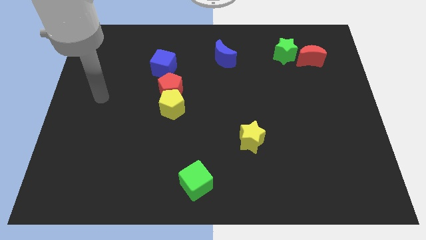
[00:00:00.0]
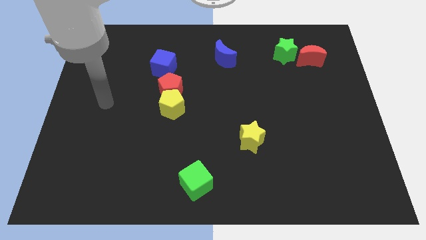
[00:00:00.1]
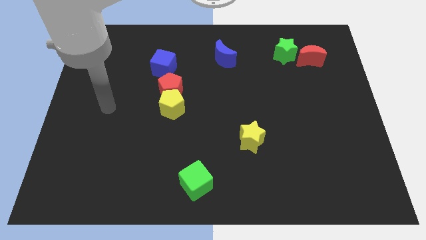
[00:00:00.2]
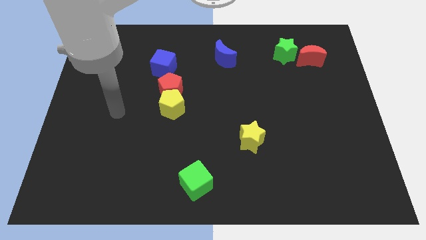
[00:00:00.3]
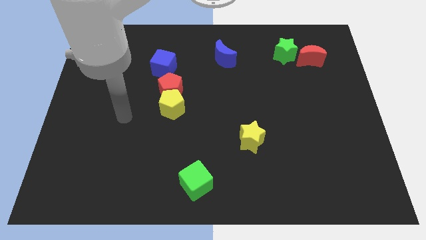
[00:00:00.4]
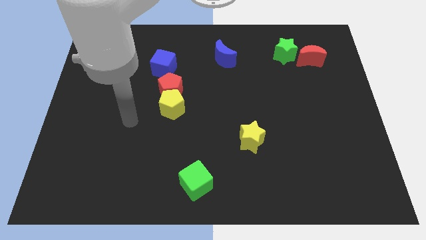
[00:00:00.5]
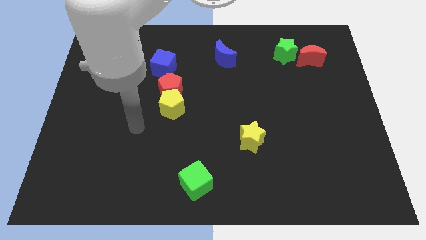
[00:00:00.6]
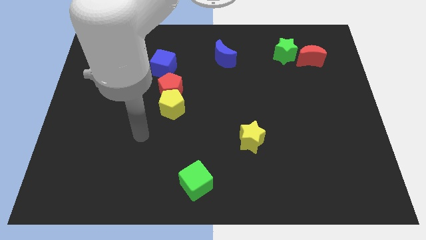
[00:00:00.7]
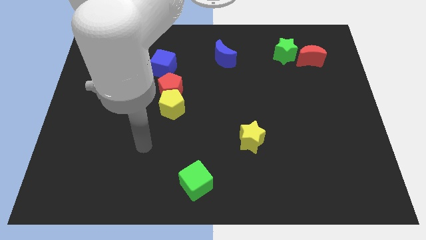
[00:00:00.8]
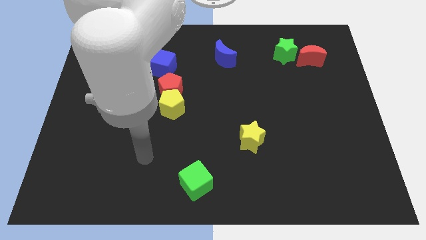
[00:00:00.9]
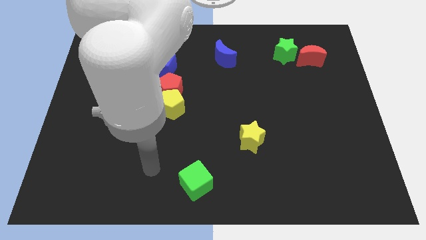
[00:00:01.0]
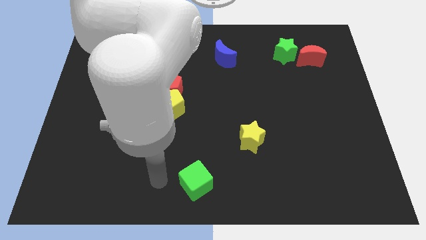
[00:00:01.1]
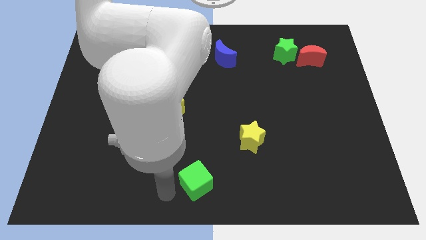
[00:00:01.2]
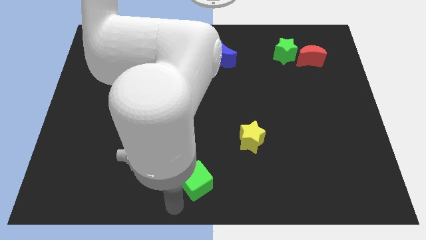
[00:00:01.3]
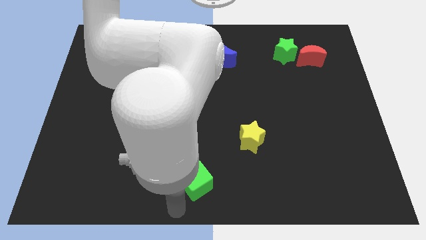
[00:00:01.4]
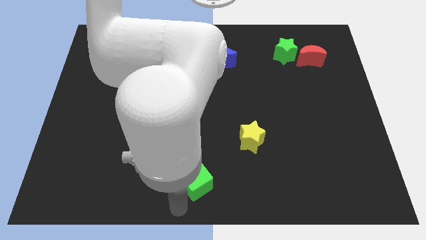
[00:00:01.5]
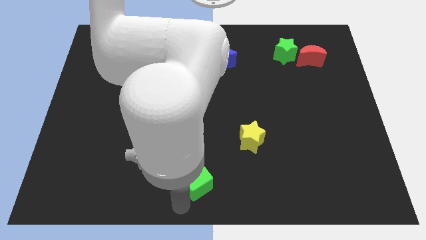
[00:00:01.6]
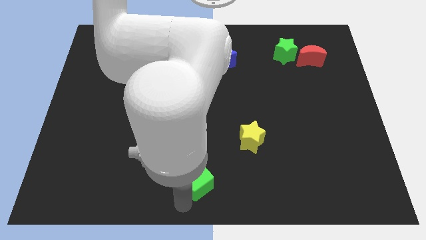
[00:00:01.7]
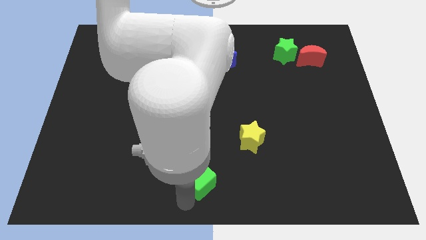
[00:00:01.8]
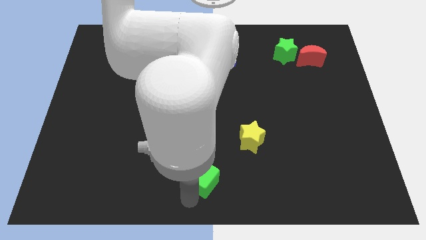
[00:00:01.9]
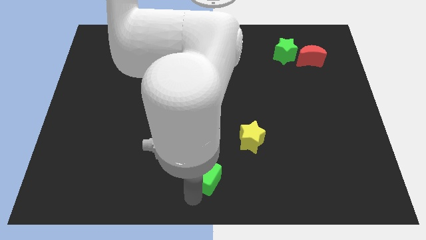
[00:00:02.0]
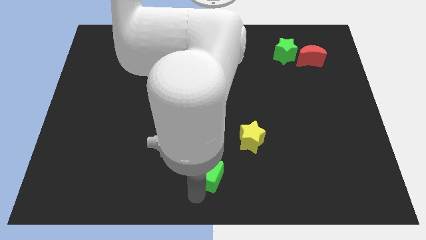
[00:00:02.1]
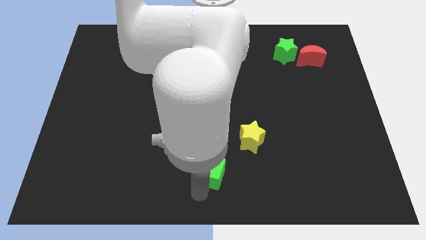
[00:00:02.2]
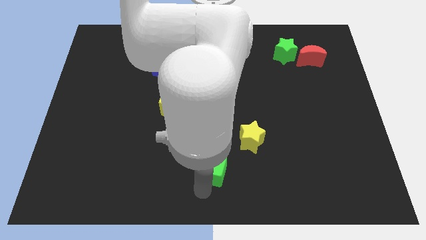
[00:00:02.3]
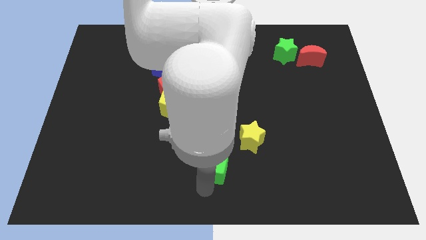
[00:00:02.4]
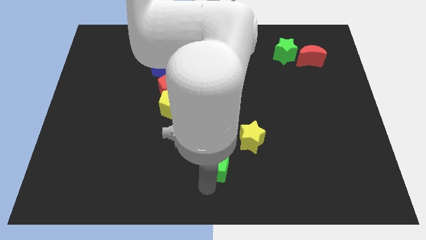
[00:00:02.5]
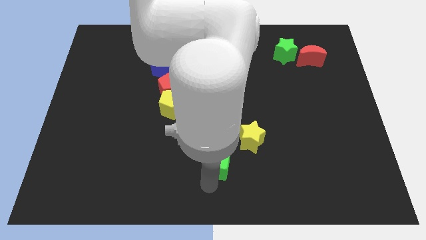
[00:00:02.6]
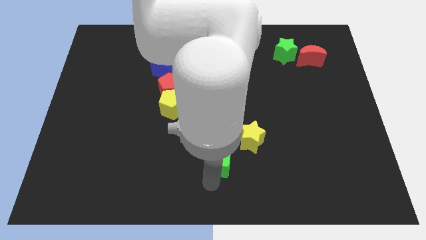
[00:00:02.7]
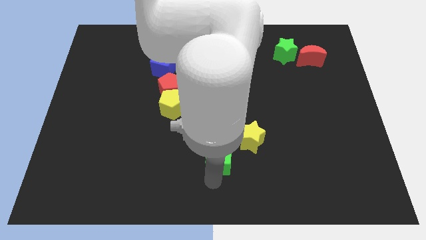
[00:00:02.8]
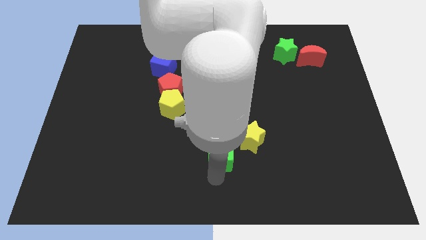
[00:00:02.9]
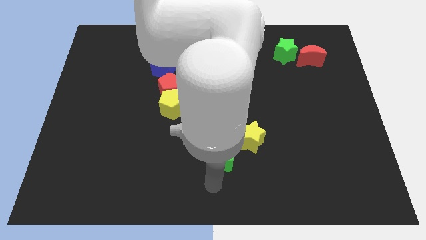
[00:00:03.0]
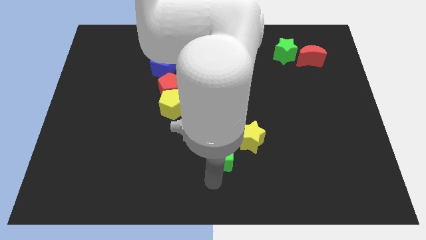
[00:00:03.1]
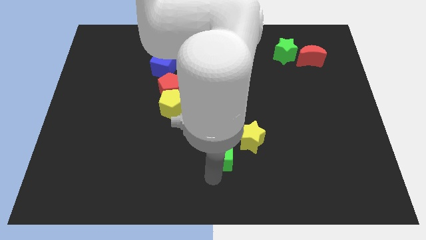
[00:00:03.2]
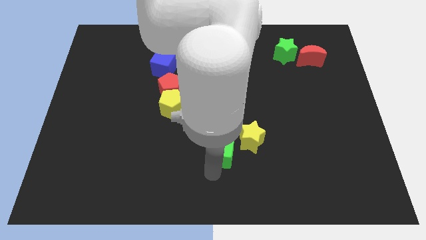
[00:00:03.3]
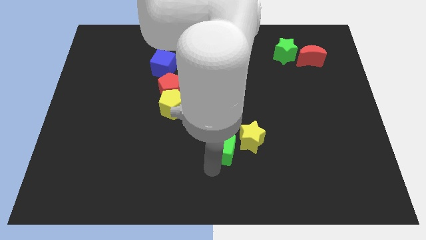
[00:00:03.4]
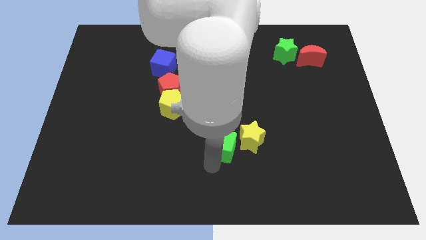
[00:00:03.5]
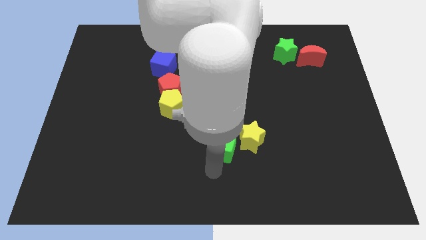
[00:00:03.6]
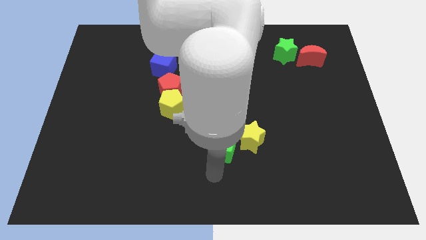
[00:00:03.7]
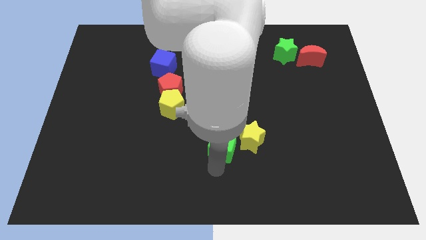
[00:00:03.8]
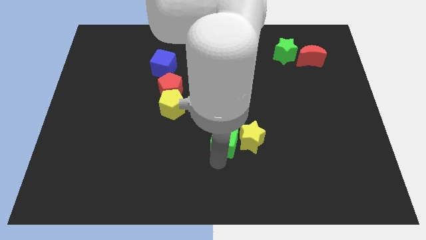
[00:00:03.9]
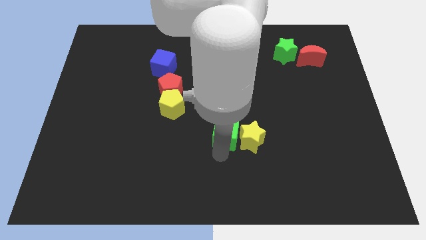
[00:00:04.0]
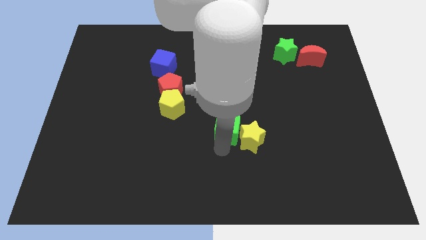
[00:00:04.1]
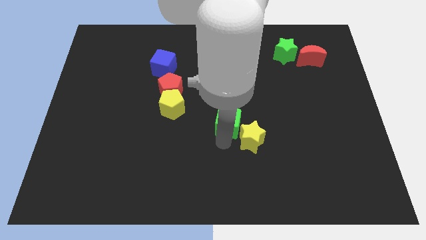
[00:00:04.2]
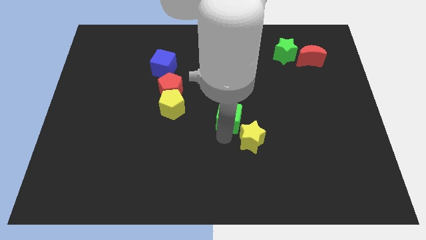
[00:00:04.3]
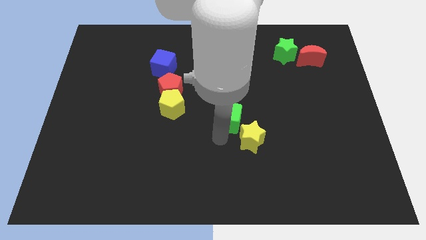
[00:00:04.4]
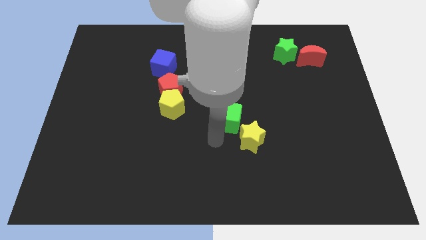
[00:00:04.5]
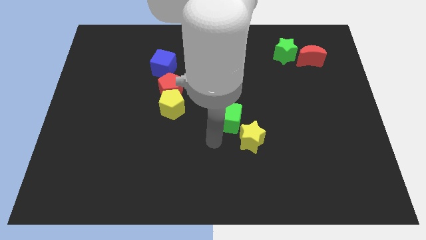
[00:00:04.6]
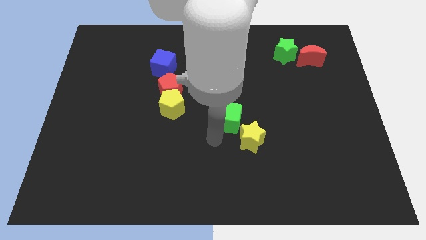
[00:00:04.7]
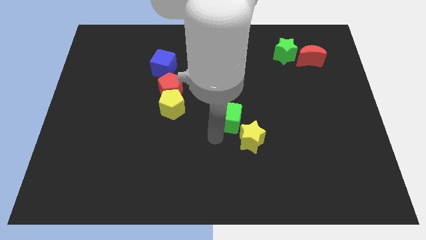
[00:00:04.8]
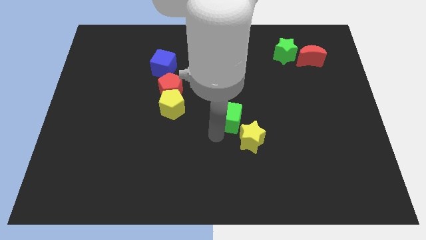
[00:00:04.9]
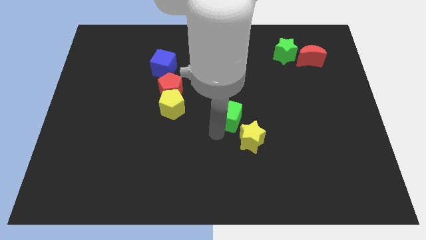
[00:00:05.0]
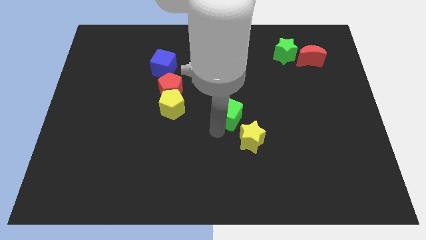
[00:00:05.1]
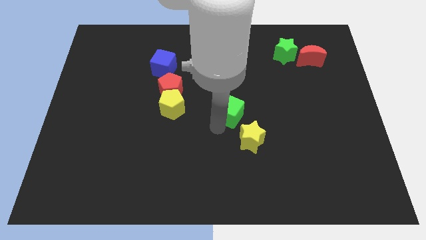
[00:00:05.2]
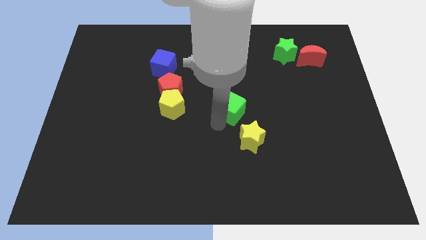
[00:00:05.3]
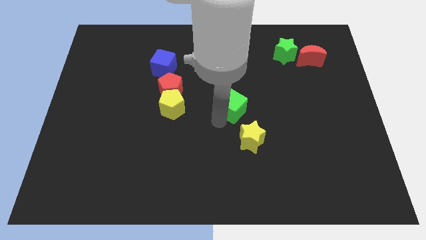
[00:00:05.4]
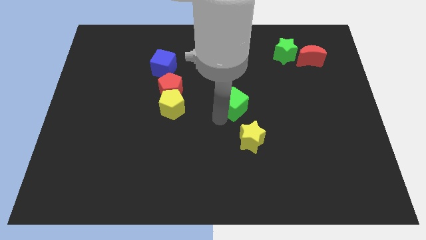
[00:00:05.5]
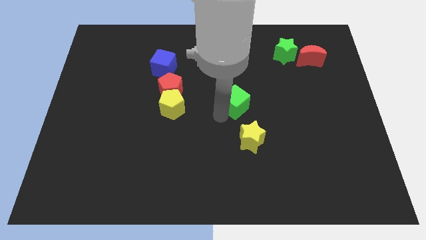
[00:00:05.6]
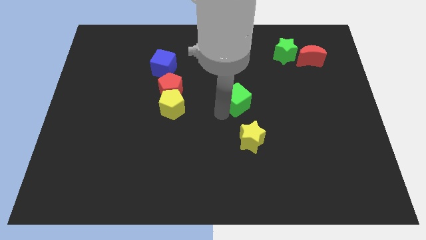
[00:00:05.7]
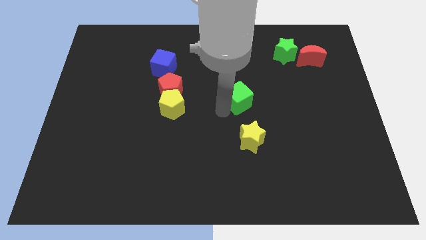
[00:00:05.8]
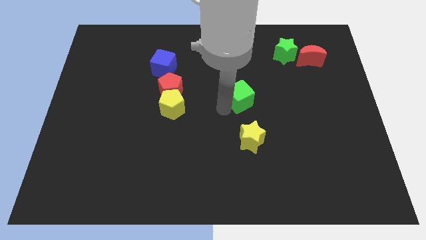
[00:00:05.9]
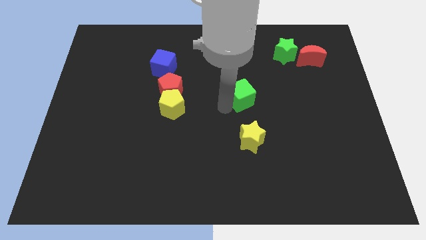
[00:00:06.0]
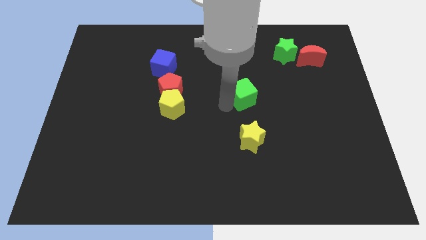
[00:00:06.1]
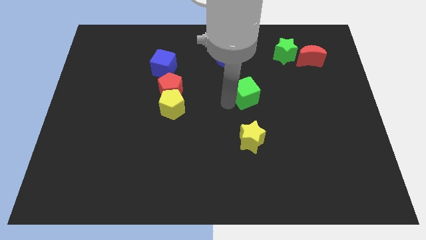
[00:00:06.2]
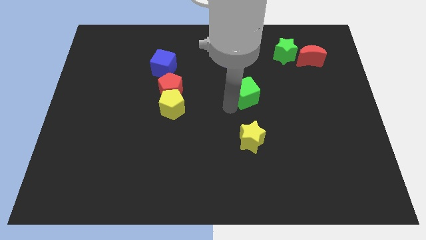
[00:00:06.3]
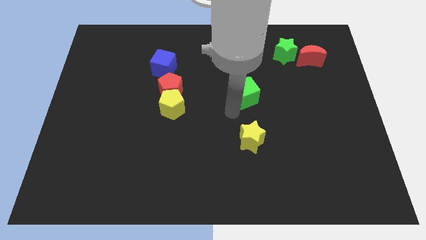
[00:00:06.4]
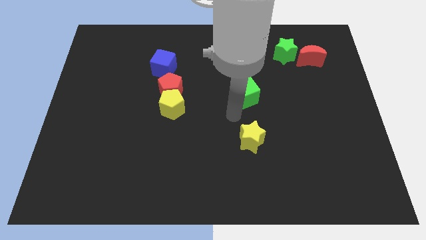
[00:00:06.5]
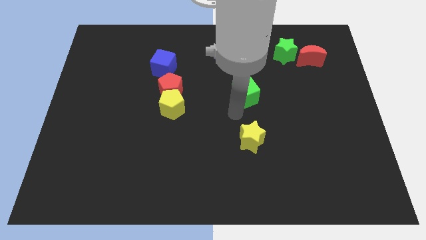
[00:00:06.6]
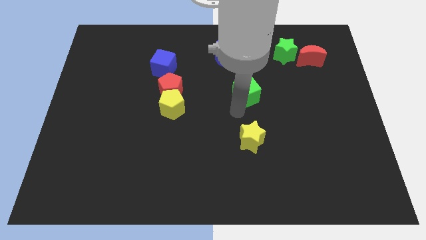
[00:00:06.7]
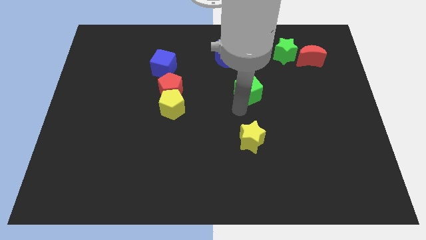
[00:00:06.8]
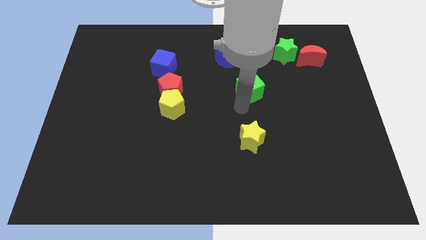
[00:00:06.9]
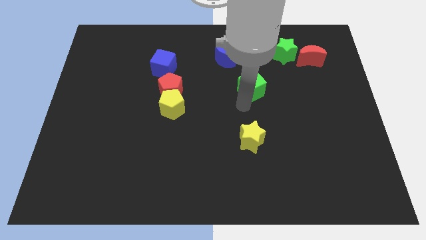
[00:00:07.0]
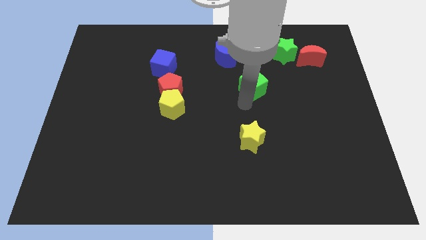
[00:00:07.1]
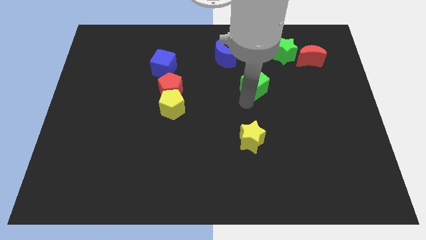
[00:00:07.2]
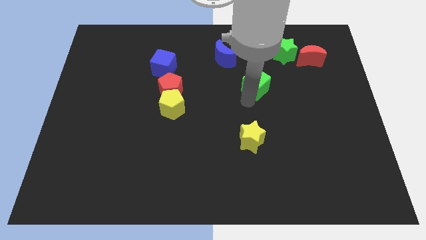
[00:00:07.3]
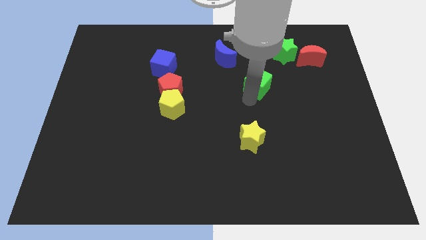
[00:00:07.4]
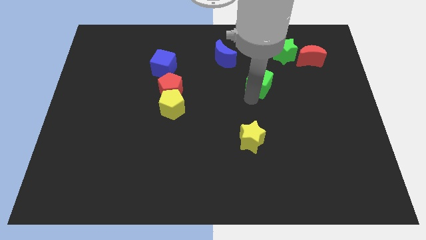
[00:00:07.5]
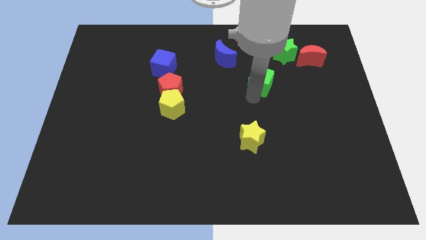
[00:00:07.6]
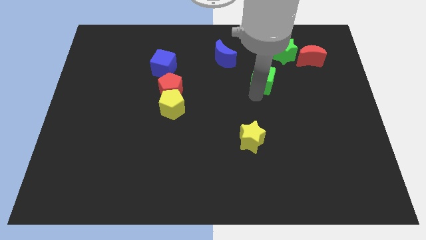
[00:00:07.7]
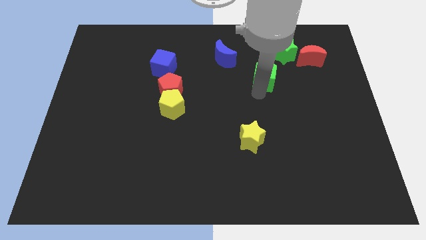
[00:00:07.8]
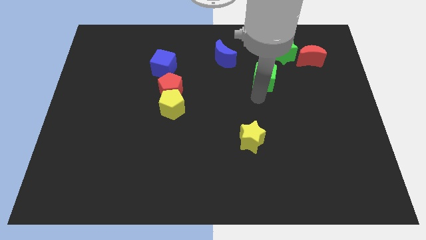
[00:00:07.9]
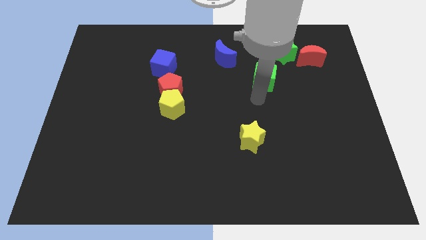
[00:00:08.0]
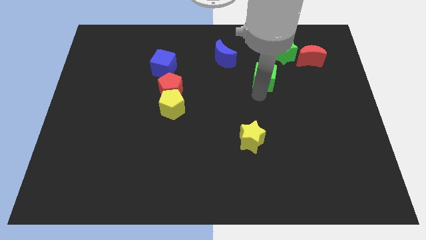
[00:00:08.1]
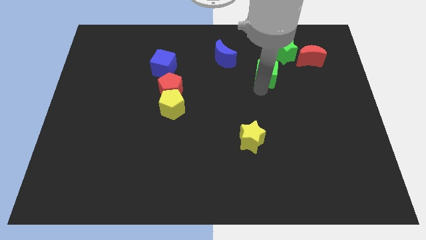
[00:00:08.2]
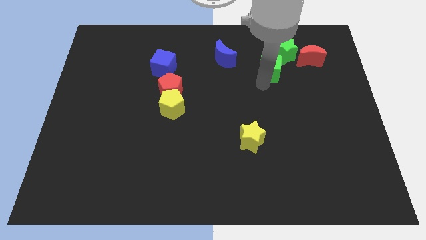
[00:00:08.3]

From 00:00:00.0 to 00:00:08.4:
move the green cube left of the red moon
